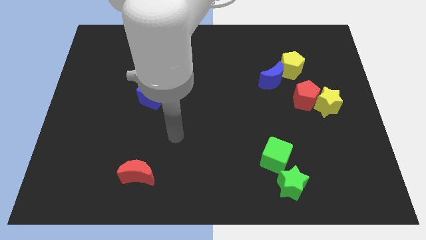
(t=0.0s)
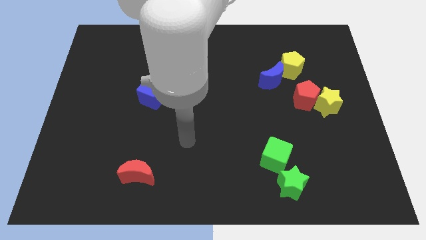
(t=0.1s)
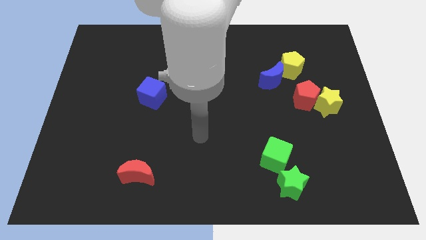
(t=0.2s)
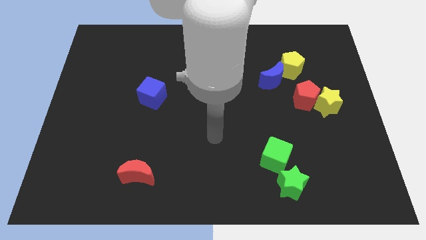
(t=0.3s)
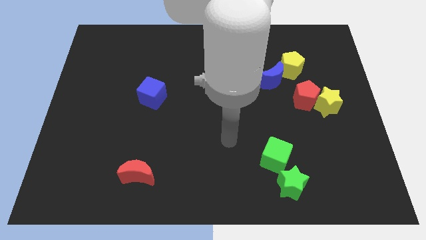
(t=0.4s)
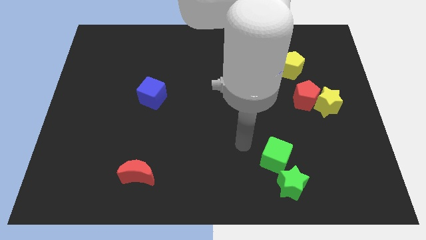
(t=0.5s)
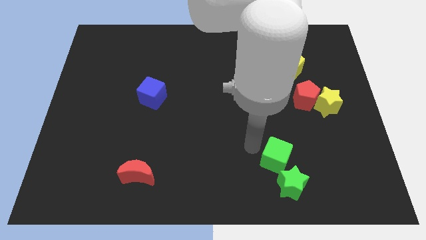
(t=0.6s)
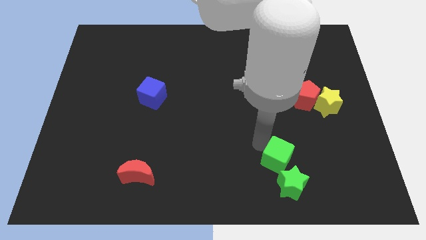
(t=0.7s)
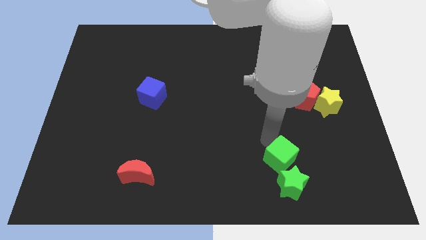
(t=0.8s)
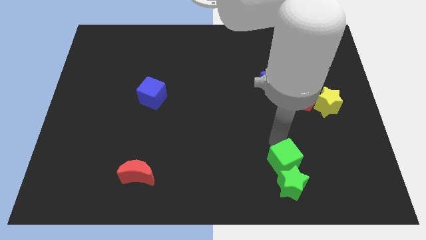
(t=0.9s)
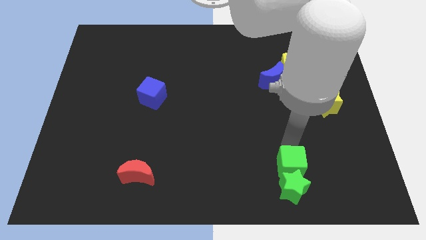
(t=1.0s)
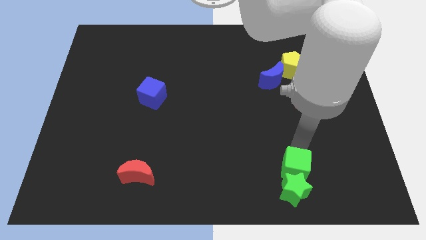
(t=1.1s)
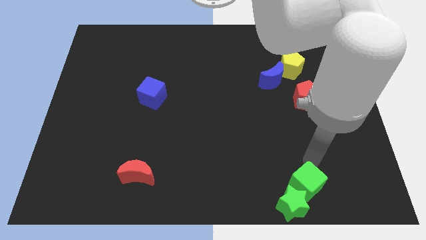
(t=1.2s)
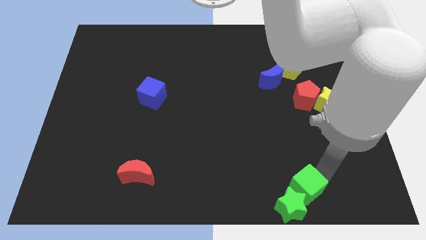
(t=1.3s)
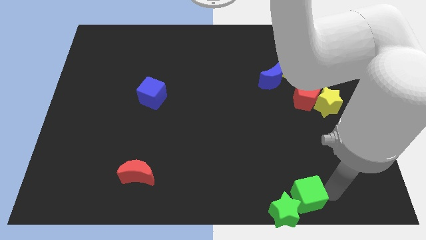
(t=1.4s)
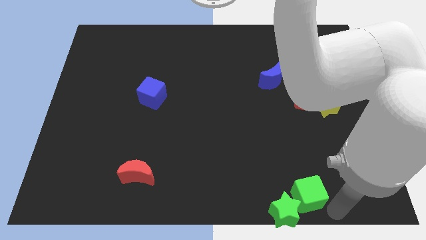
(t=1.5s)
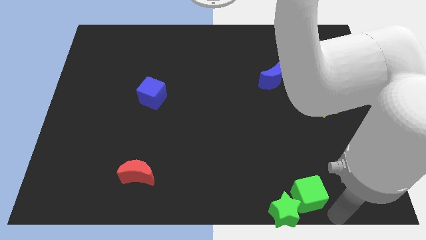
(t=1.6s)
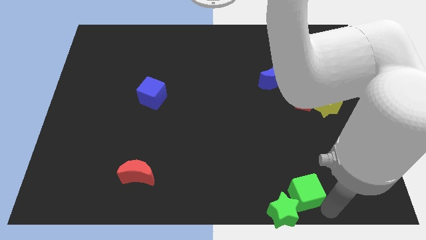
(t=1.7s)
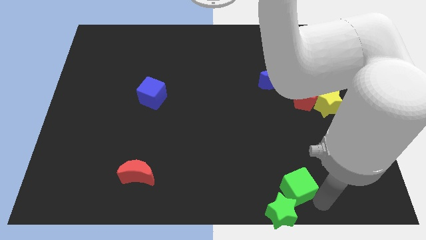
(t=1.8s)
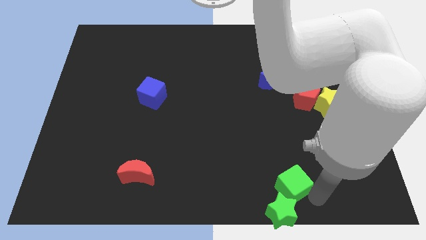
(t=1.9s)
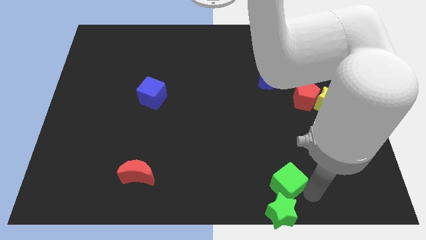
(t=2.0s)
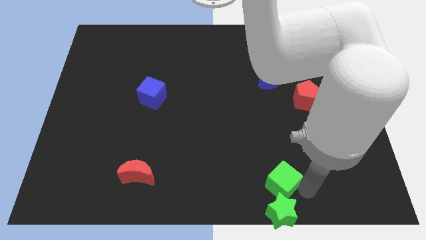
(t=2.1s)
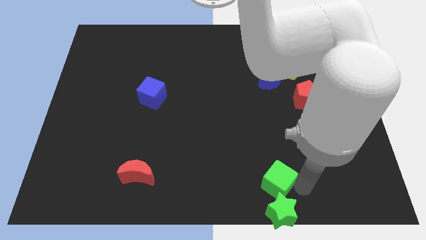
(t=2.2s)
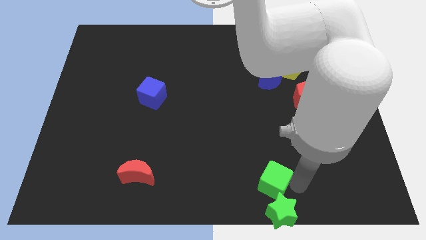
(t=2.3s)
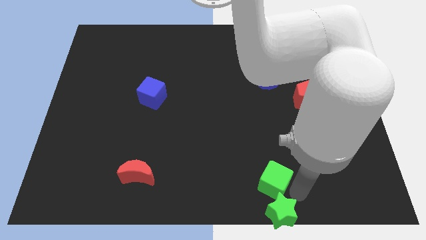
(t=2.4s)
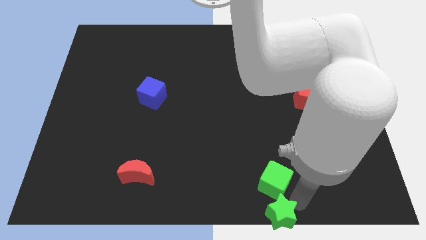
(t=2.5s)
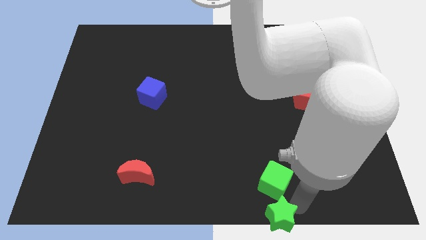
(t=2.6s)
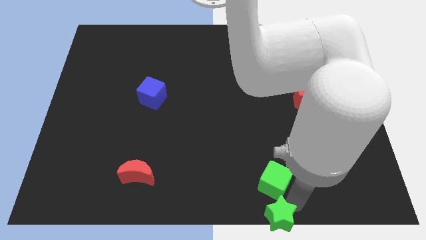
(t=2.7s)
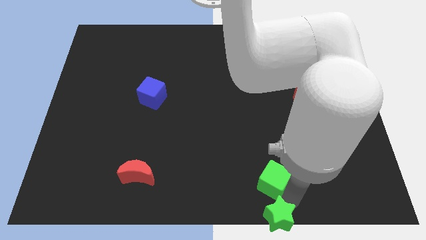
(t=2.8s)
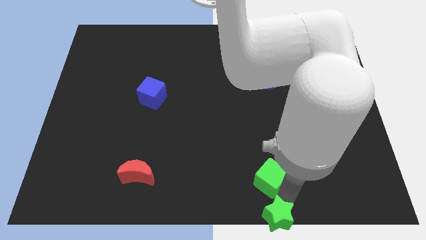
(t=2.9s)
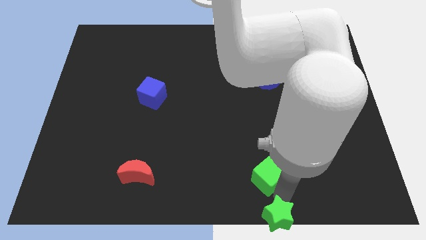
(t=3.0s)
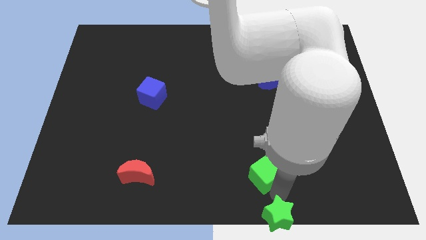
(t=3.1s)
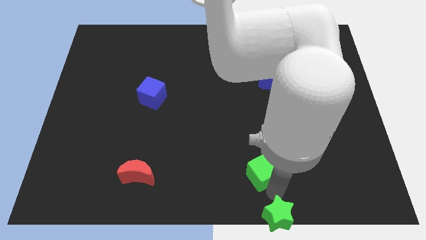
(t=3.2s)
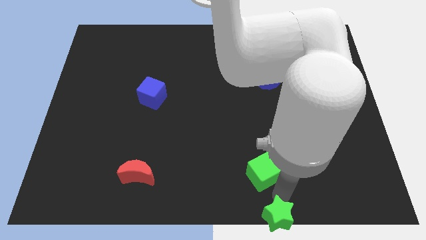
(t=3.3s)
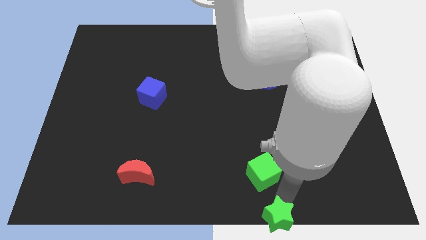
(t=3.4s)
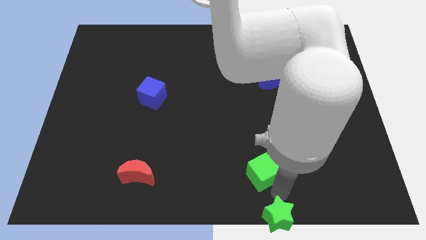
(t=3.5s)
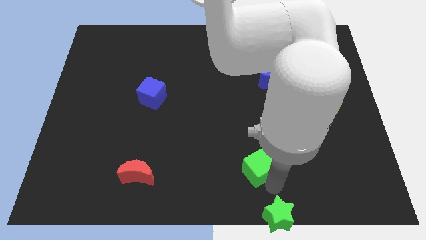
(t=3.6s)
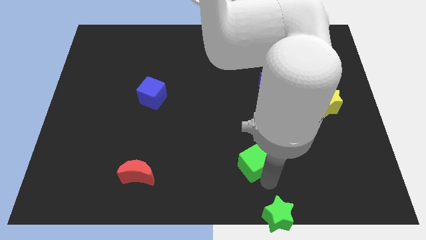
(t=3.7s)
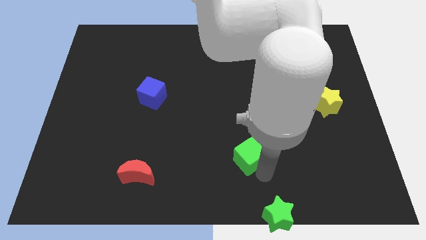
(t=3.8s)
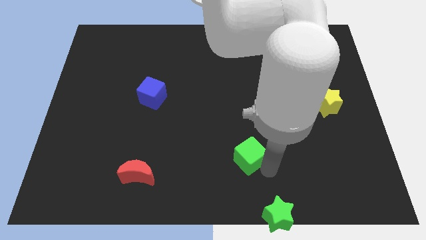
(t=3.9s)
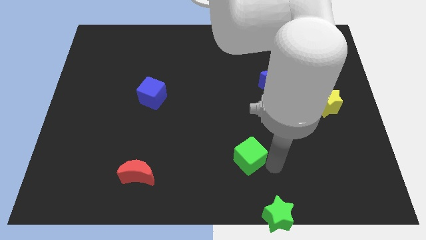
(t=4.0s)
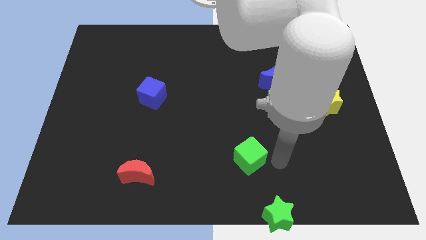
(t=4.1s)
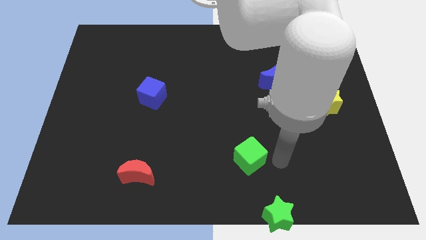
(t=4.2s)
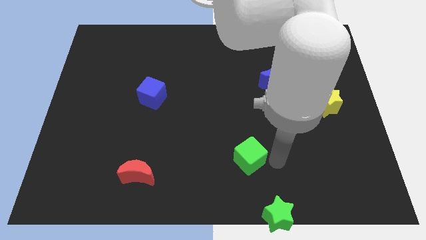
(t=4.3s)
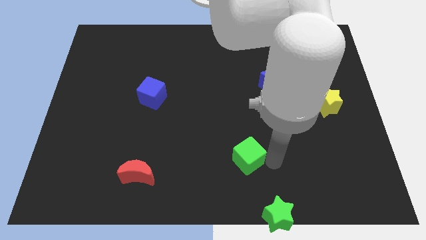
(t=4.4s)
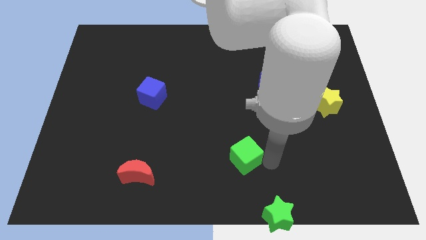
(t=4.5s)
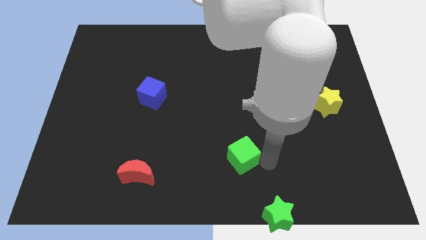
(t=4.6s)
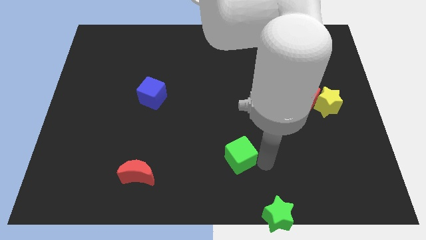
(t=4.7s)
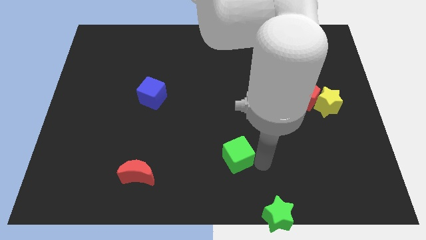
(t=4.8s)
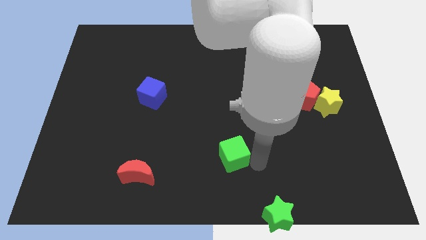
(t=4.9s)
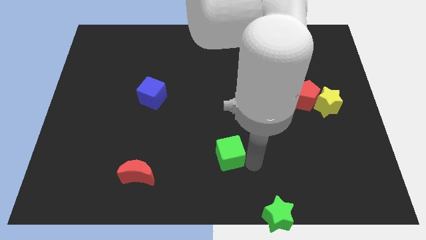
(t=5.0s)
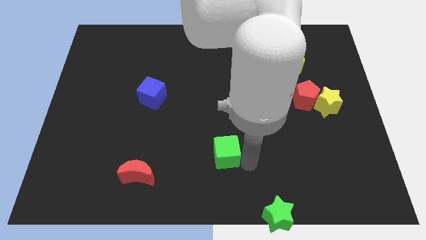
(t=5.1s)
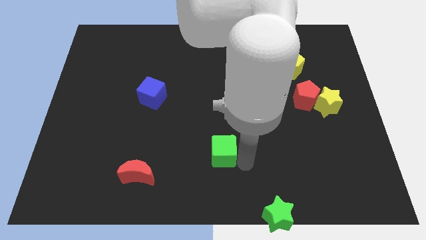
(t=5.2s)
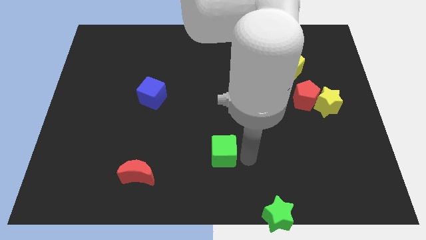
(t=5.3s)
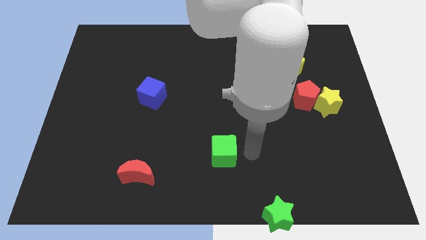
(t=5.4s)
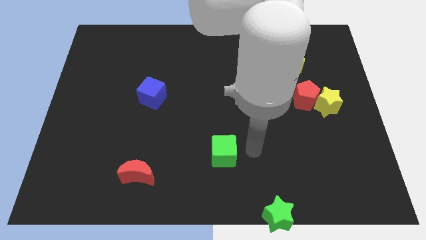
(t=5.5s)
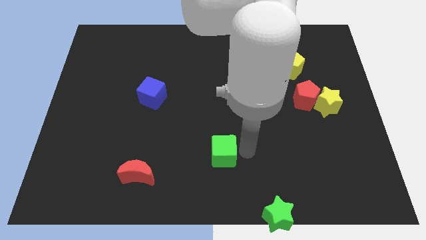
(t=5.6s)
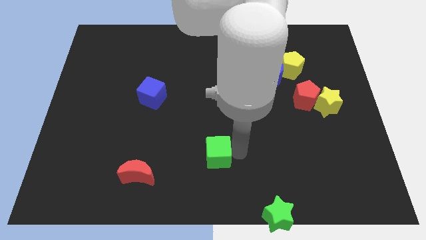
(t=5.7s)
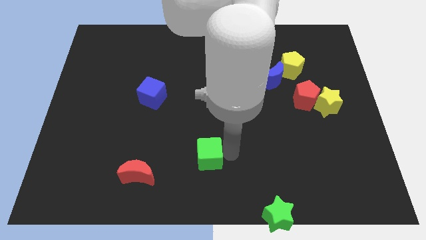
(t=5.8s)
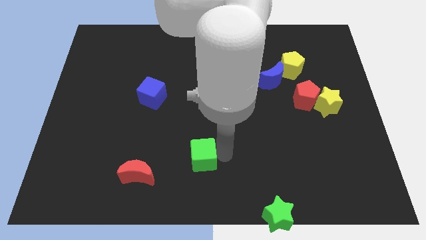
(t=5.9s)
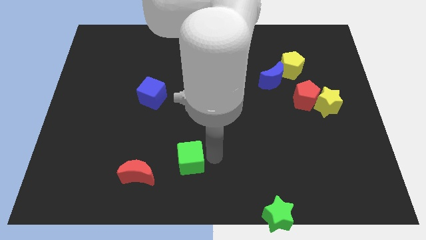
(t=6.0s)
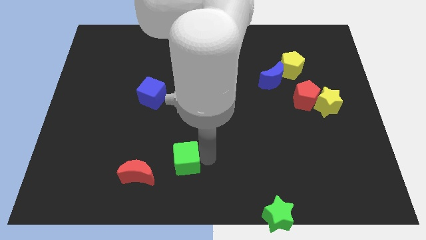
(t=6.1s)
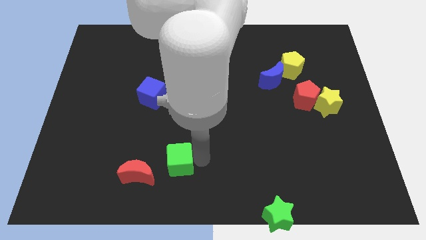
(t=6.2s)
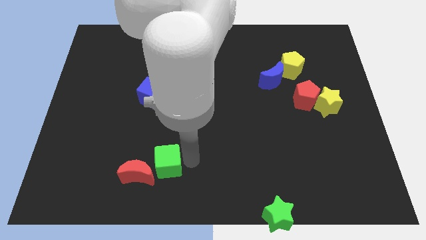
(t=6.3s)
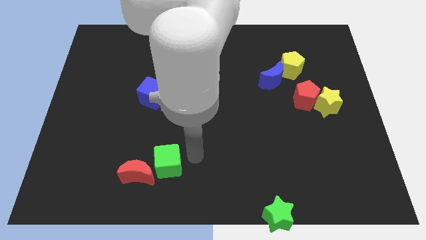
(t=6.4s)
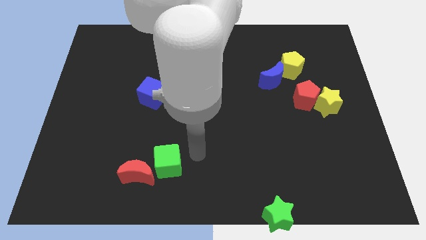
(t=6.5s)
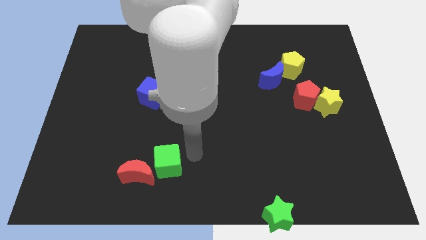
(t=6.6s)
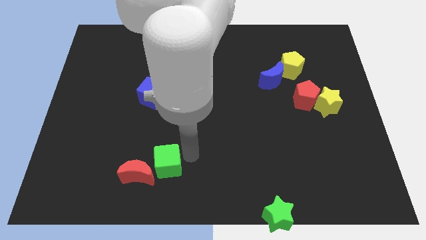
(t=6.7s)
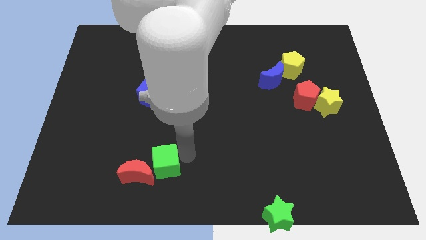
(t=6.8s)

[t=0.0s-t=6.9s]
put the green cube close to the red moon

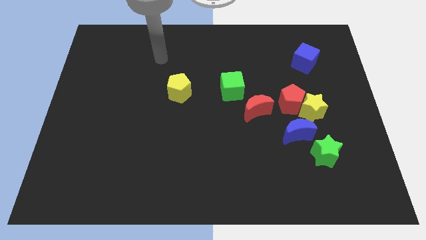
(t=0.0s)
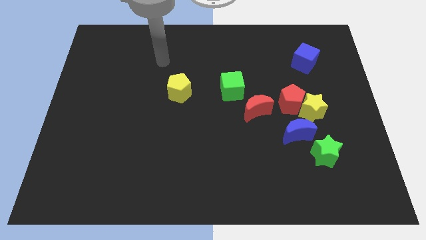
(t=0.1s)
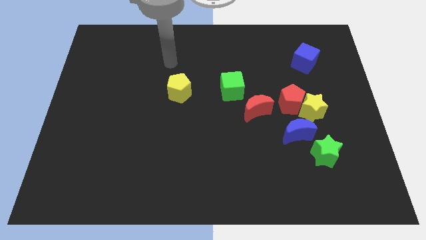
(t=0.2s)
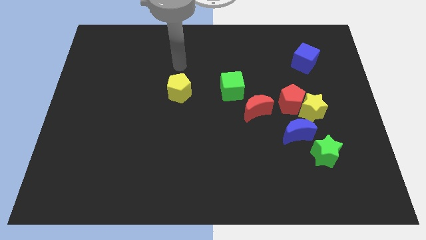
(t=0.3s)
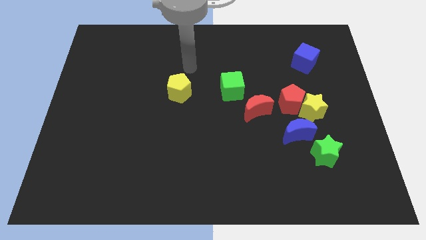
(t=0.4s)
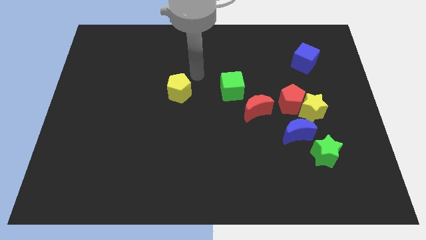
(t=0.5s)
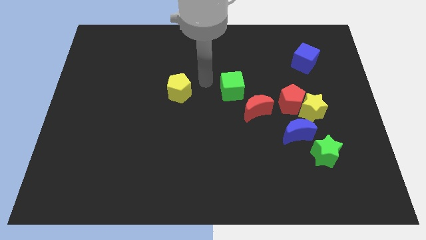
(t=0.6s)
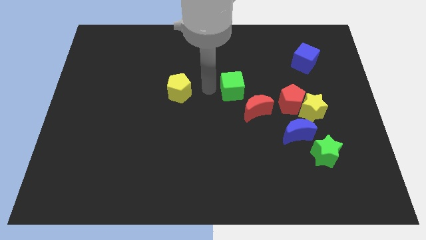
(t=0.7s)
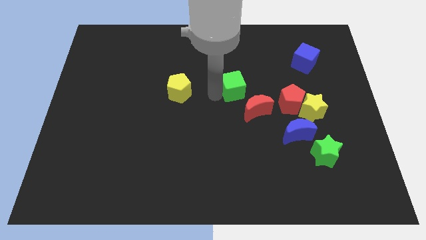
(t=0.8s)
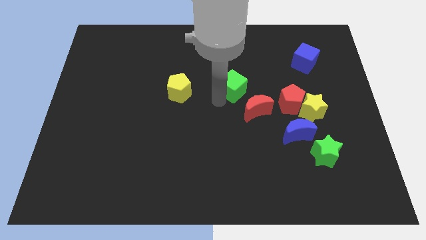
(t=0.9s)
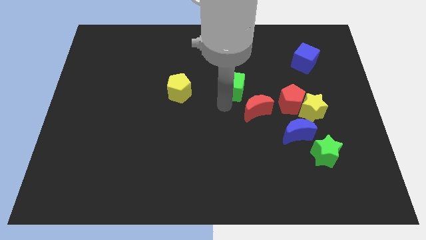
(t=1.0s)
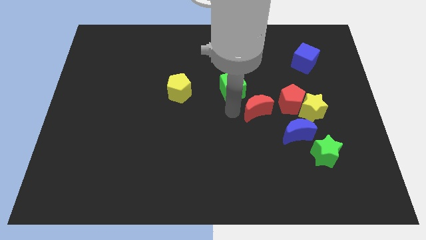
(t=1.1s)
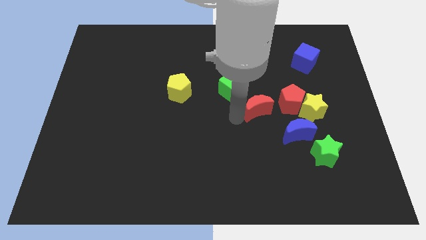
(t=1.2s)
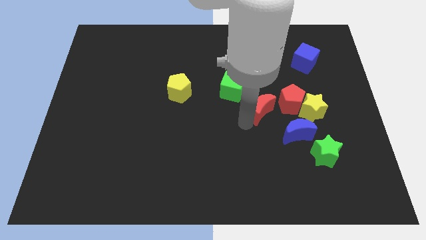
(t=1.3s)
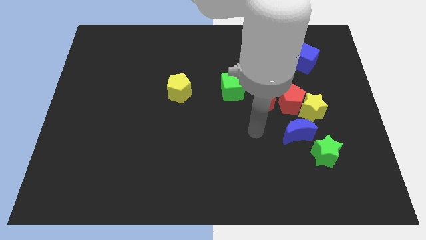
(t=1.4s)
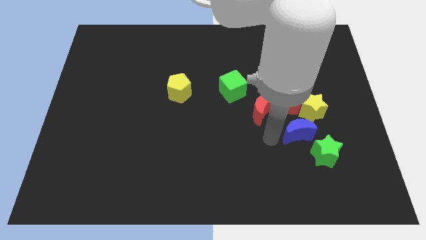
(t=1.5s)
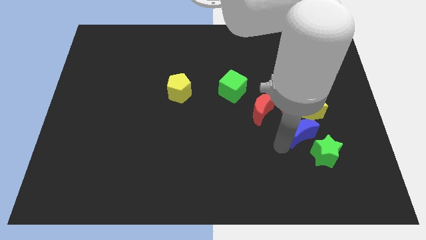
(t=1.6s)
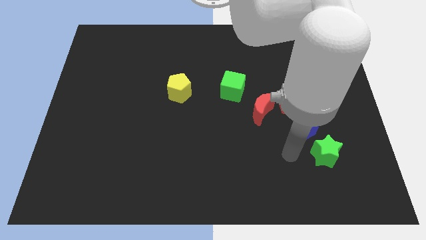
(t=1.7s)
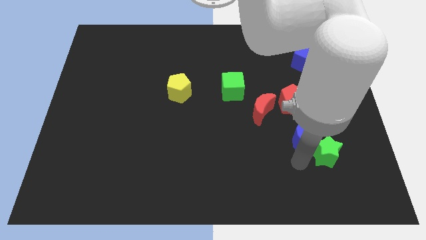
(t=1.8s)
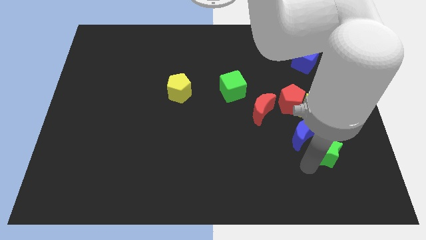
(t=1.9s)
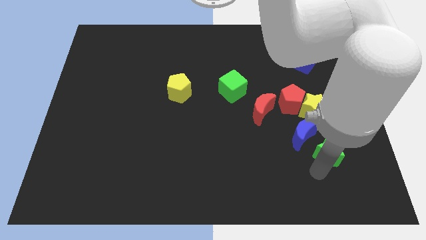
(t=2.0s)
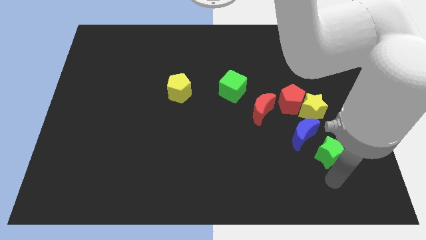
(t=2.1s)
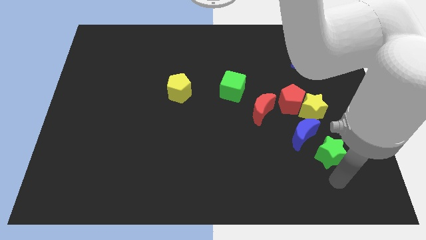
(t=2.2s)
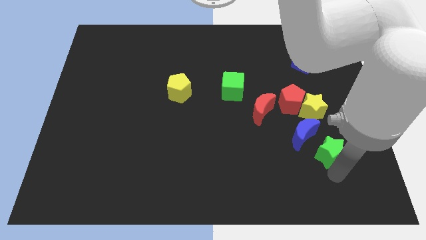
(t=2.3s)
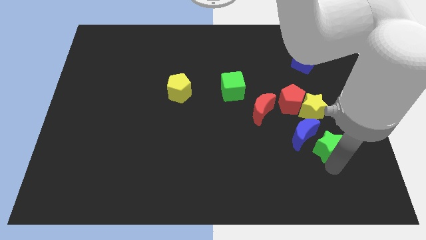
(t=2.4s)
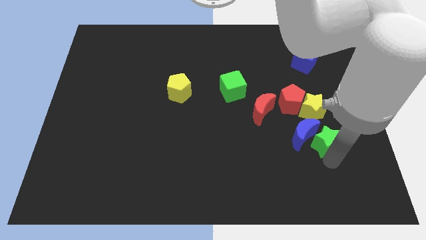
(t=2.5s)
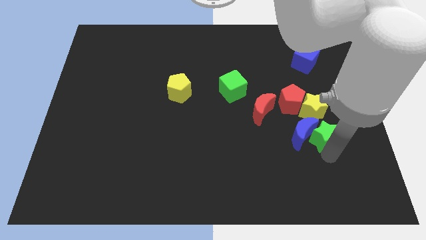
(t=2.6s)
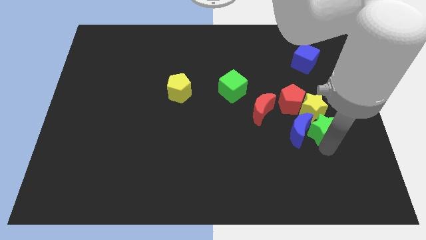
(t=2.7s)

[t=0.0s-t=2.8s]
move the green star to the yellow star
